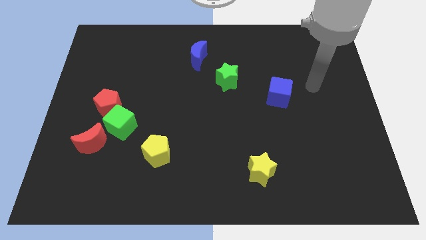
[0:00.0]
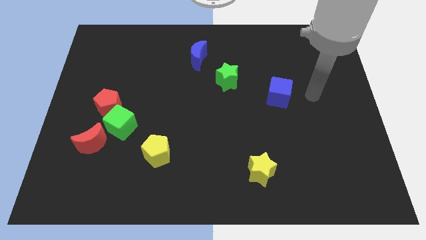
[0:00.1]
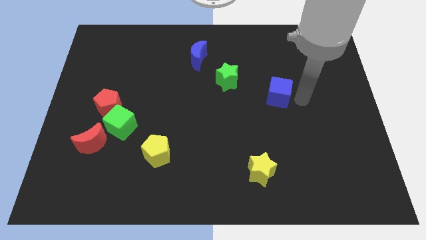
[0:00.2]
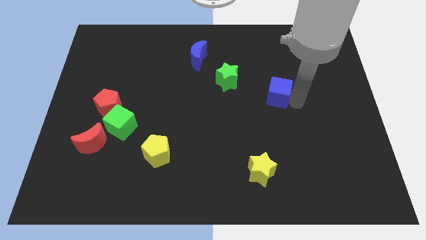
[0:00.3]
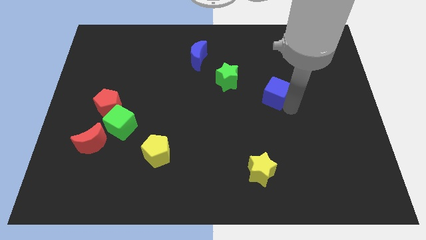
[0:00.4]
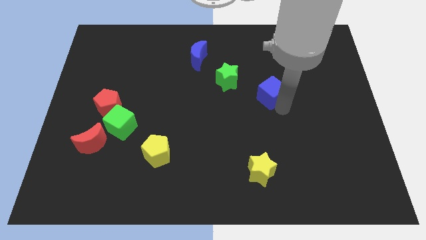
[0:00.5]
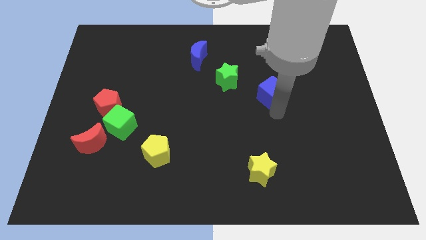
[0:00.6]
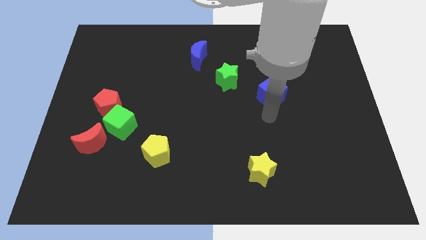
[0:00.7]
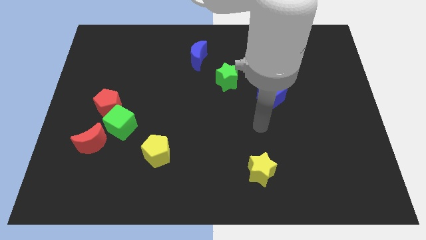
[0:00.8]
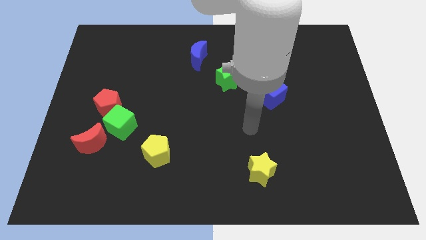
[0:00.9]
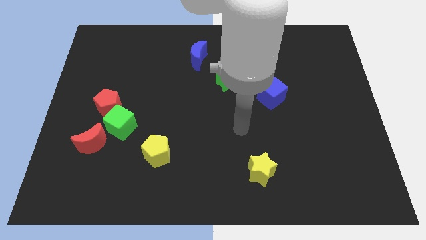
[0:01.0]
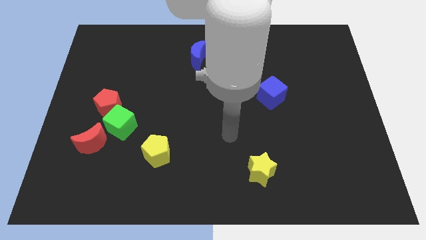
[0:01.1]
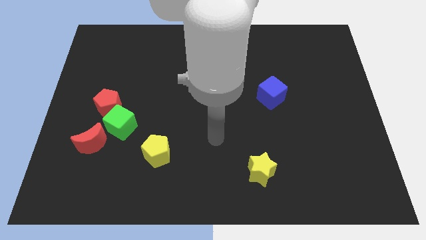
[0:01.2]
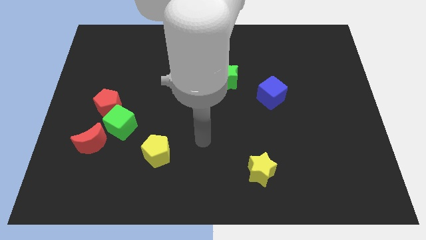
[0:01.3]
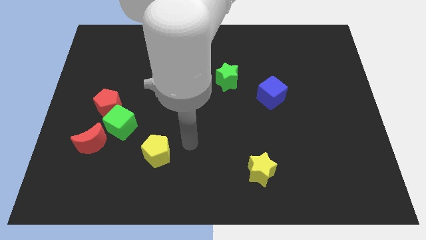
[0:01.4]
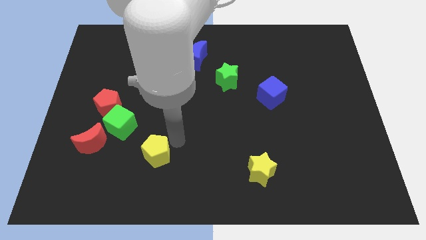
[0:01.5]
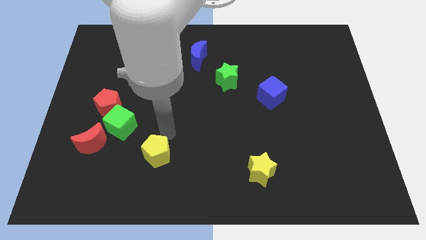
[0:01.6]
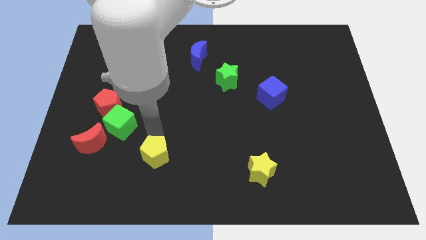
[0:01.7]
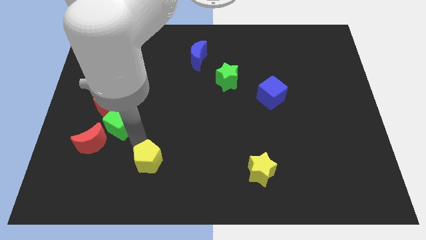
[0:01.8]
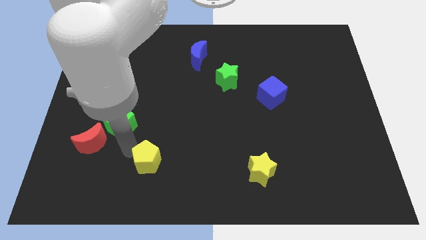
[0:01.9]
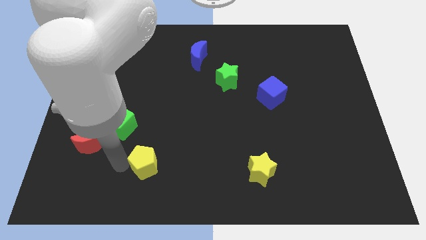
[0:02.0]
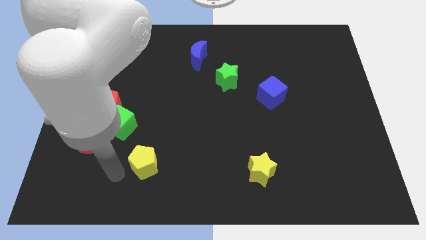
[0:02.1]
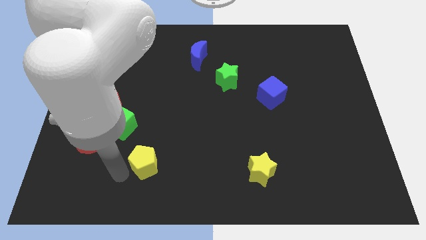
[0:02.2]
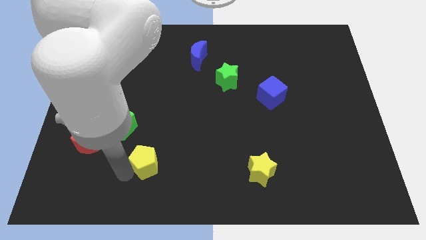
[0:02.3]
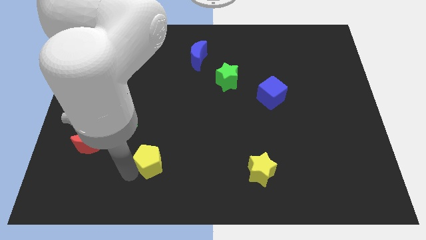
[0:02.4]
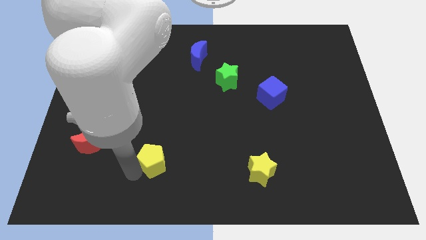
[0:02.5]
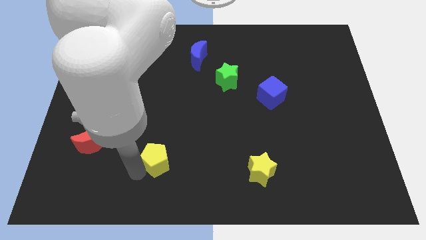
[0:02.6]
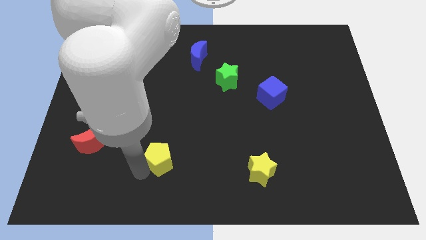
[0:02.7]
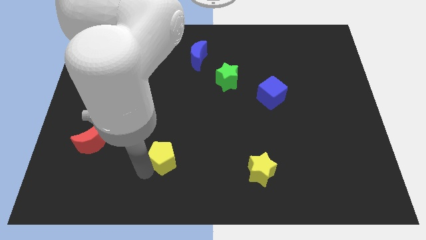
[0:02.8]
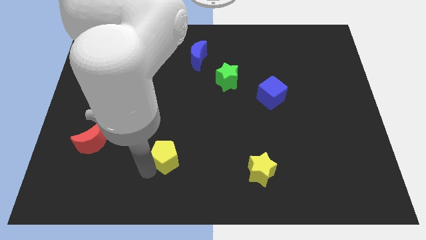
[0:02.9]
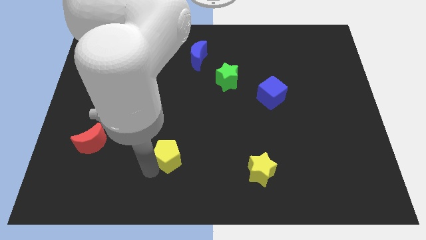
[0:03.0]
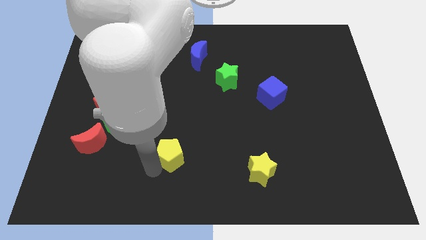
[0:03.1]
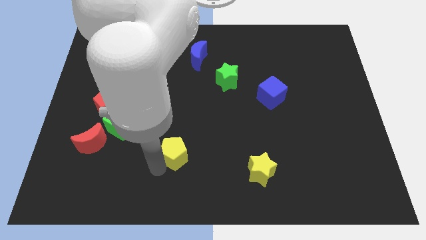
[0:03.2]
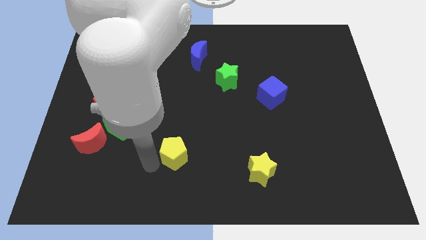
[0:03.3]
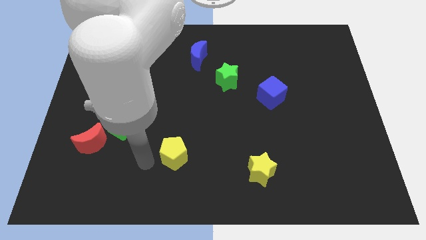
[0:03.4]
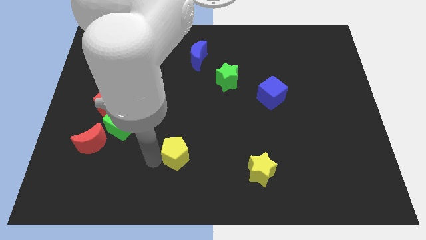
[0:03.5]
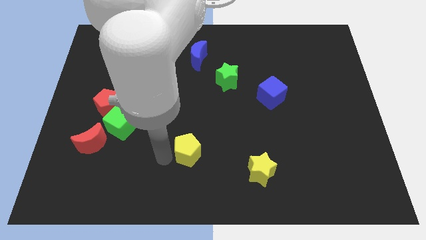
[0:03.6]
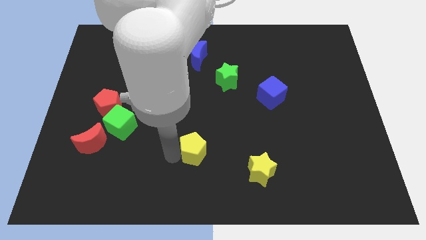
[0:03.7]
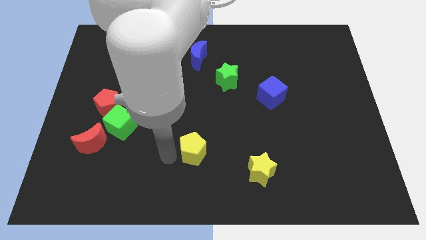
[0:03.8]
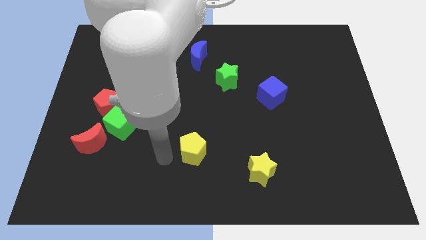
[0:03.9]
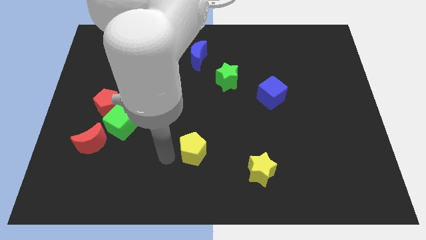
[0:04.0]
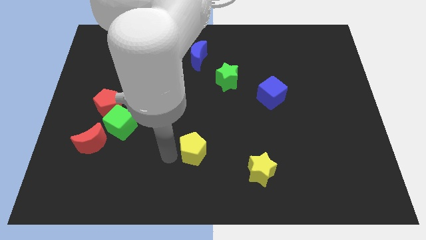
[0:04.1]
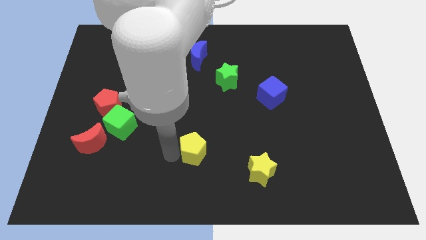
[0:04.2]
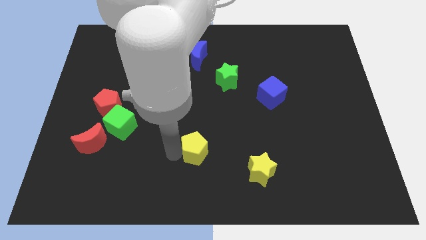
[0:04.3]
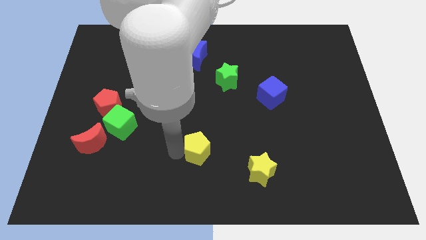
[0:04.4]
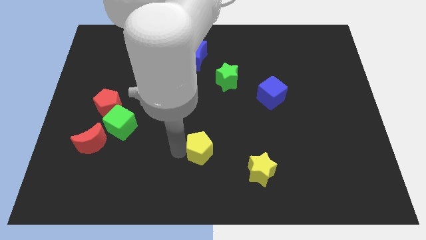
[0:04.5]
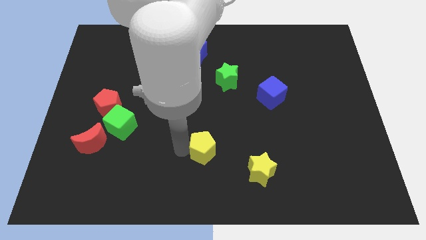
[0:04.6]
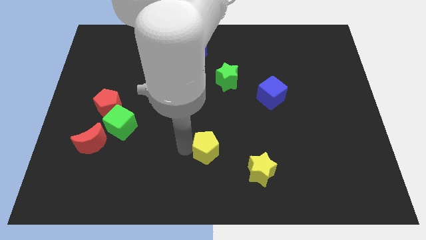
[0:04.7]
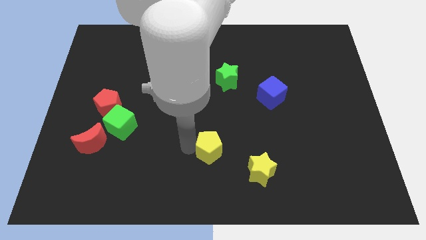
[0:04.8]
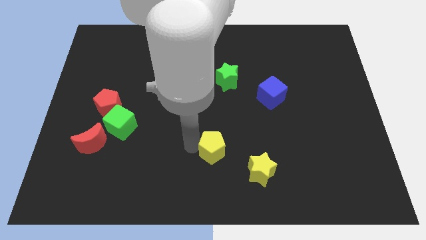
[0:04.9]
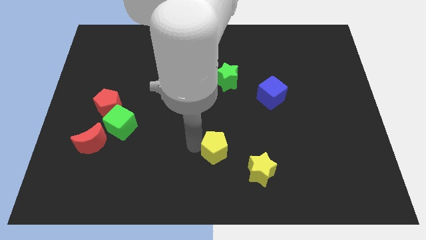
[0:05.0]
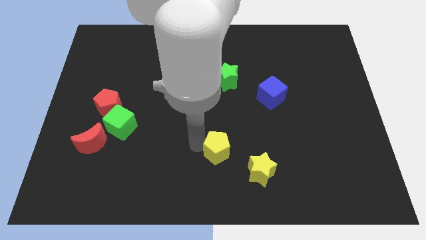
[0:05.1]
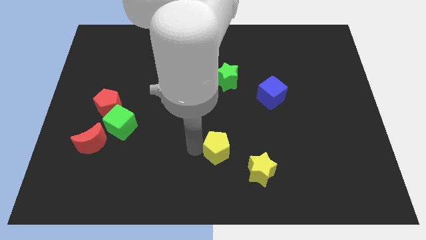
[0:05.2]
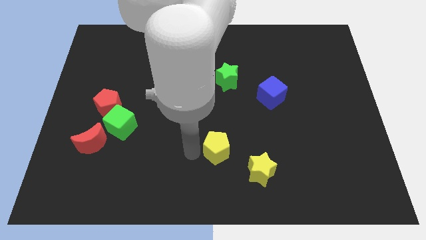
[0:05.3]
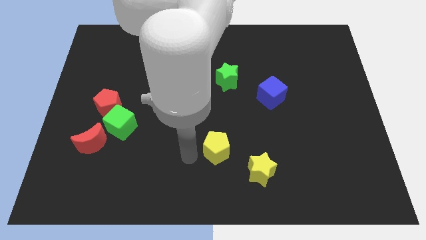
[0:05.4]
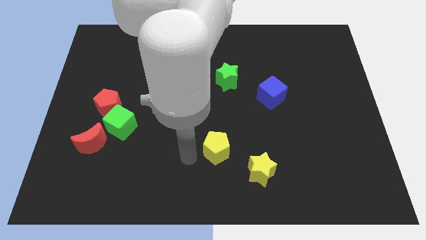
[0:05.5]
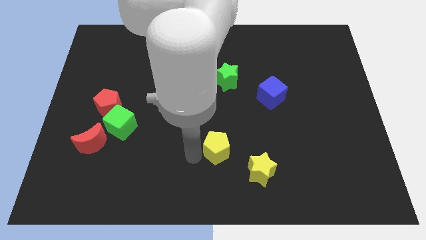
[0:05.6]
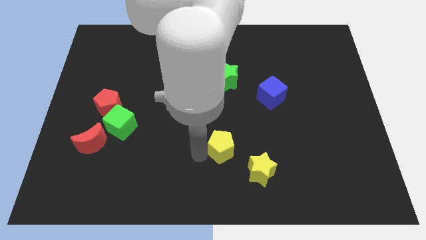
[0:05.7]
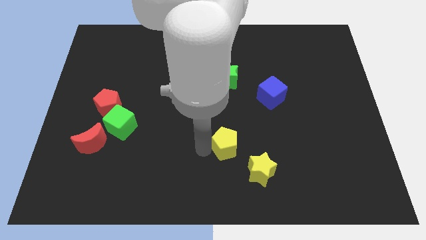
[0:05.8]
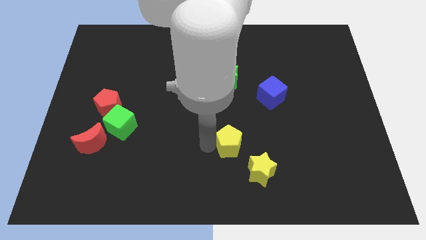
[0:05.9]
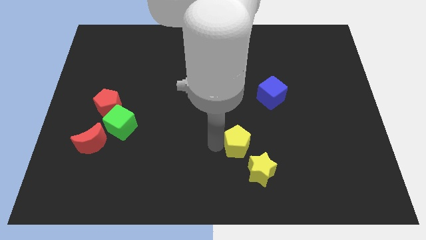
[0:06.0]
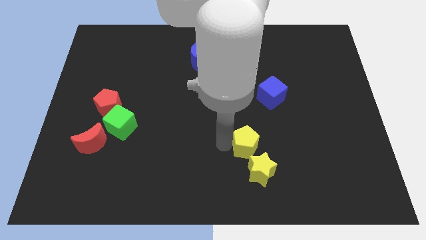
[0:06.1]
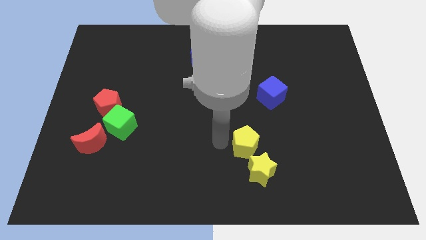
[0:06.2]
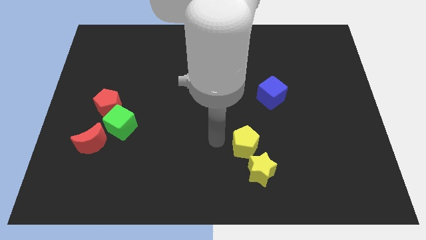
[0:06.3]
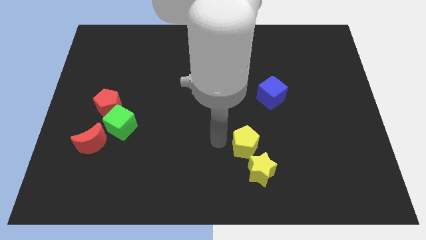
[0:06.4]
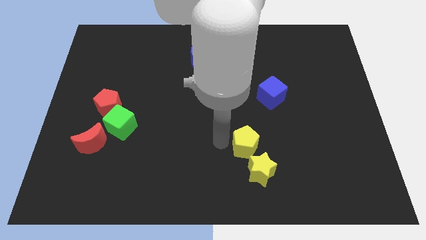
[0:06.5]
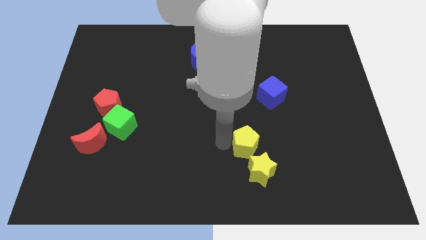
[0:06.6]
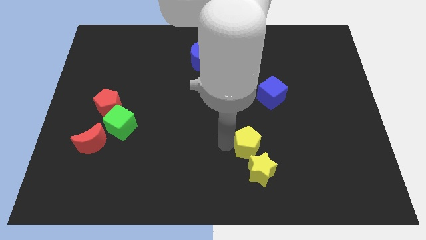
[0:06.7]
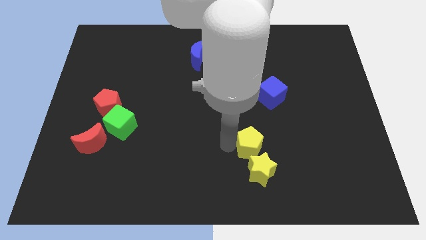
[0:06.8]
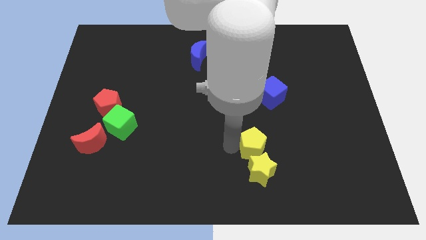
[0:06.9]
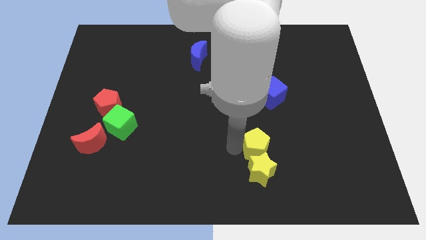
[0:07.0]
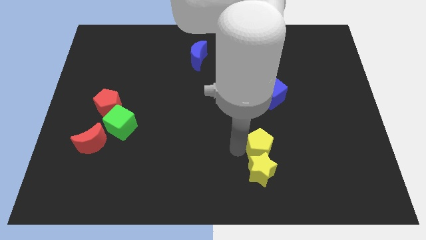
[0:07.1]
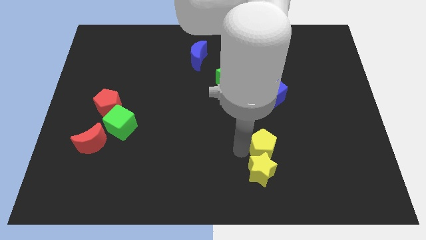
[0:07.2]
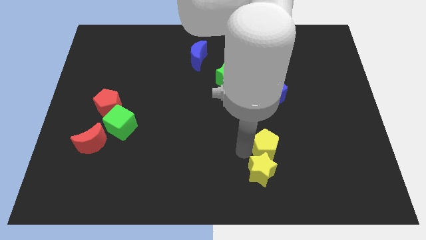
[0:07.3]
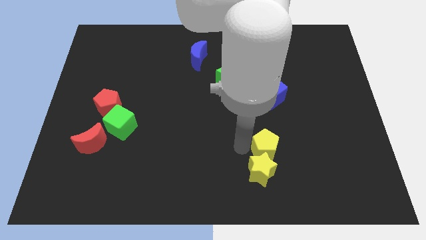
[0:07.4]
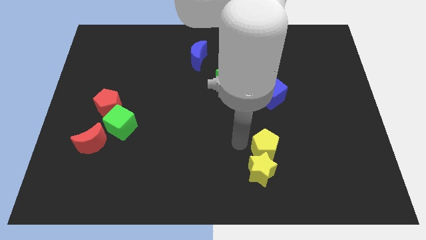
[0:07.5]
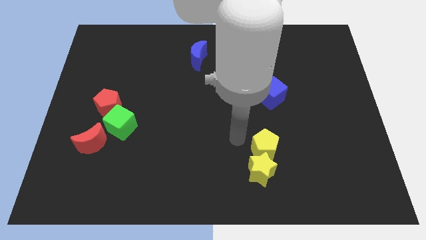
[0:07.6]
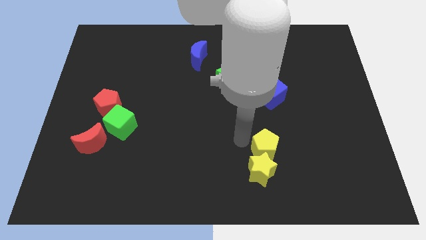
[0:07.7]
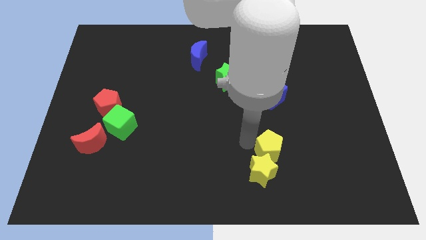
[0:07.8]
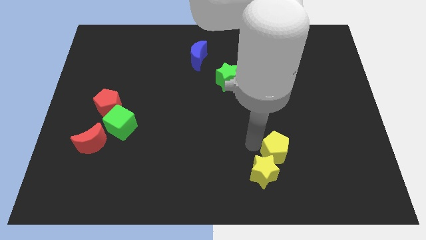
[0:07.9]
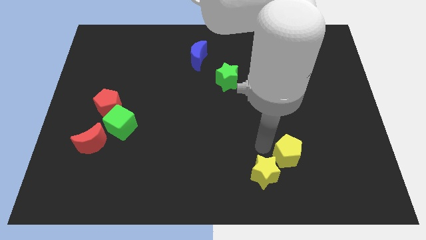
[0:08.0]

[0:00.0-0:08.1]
put the yellow pentagon to the right of the yellow star
